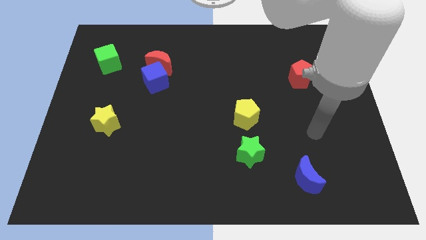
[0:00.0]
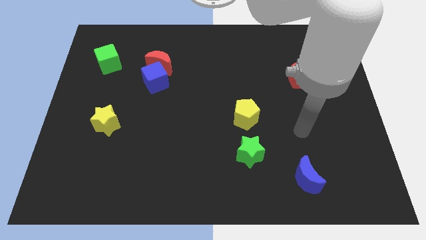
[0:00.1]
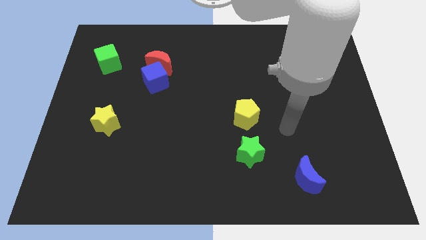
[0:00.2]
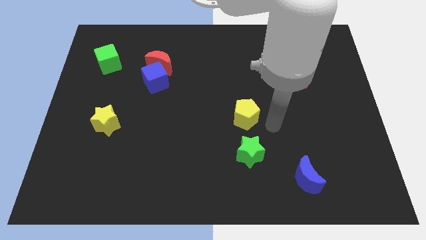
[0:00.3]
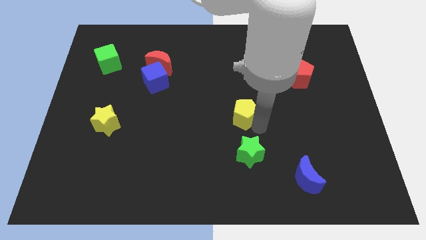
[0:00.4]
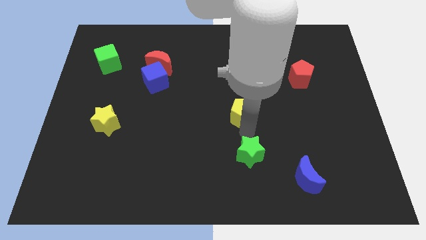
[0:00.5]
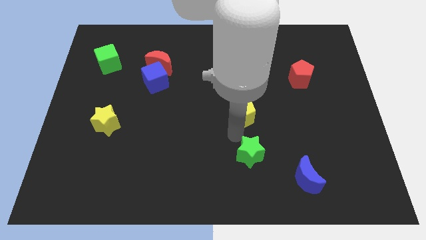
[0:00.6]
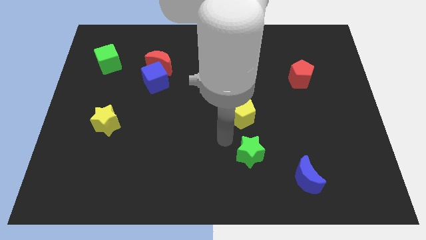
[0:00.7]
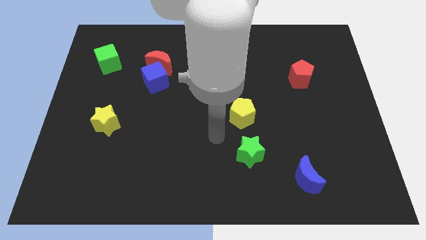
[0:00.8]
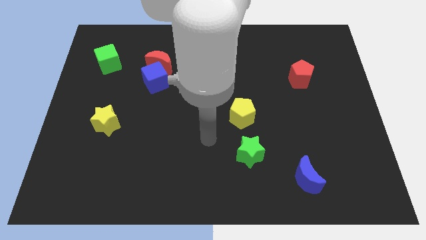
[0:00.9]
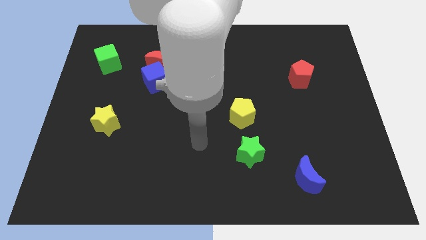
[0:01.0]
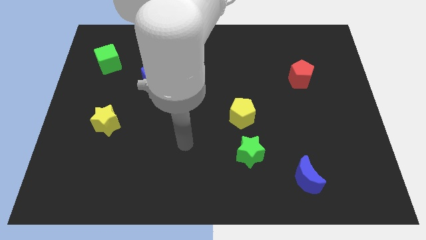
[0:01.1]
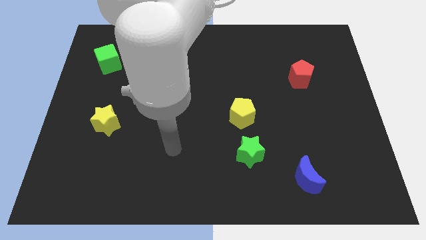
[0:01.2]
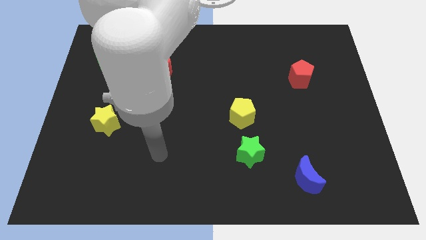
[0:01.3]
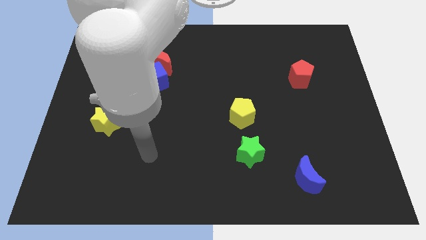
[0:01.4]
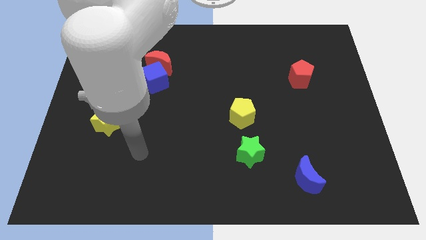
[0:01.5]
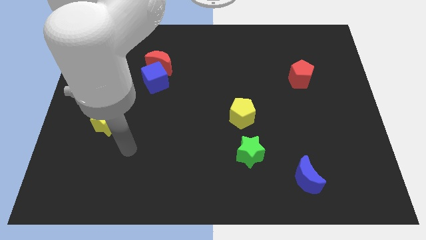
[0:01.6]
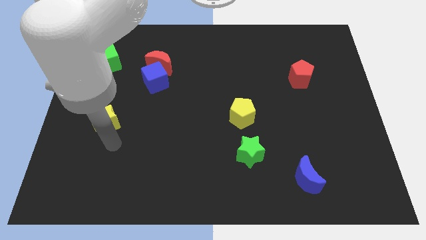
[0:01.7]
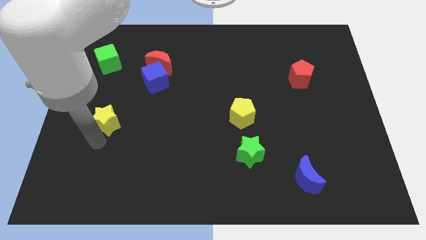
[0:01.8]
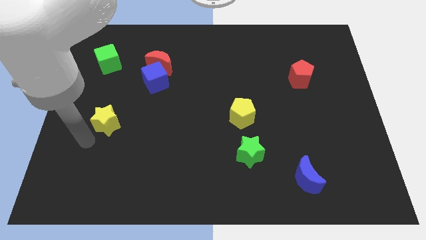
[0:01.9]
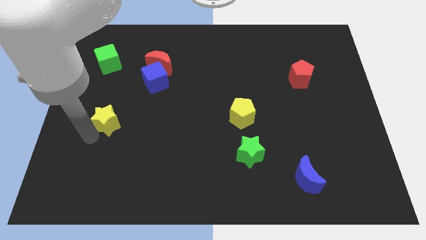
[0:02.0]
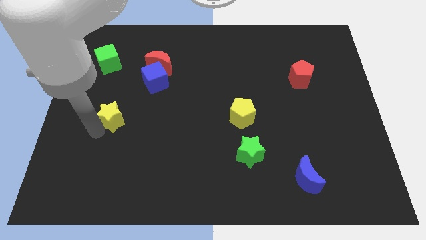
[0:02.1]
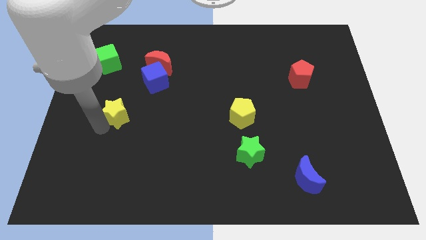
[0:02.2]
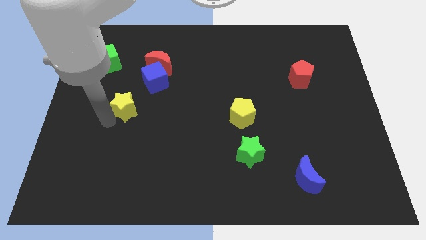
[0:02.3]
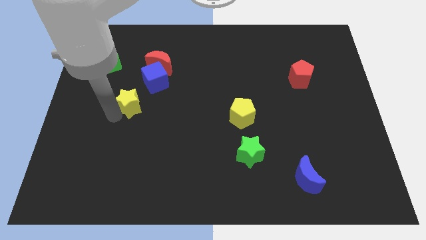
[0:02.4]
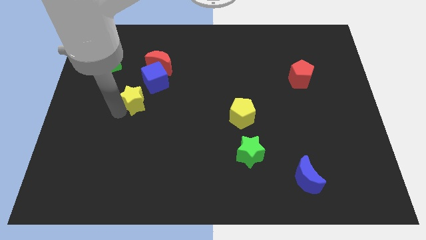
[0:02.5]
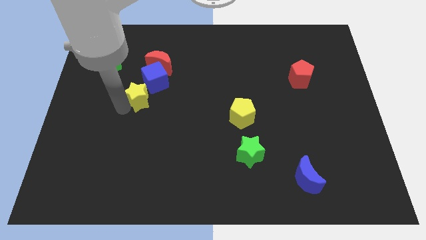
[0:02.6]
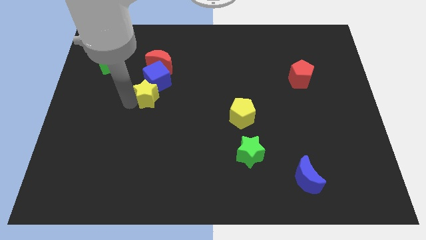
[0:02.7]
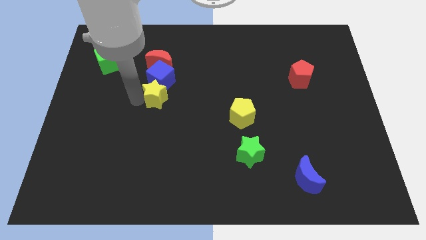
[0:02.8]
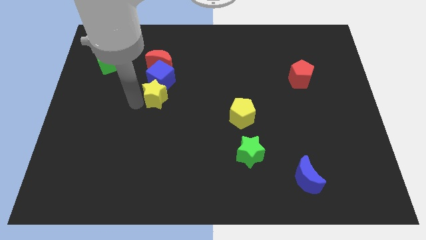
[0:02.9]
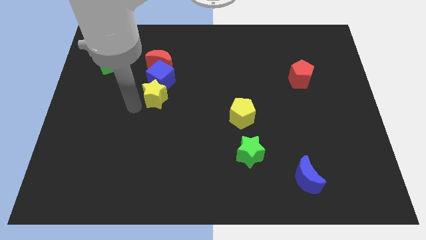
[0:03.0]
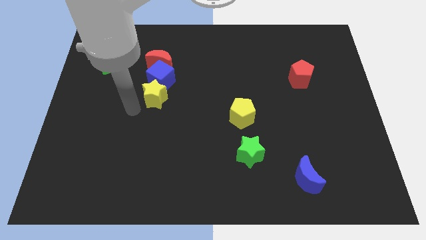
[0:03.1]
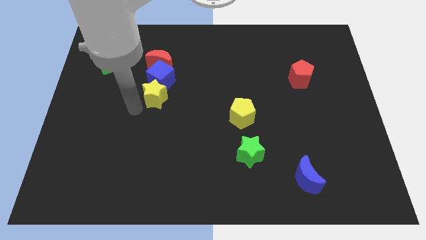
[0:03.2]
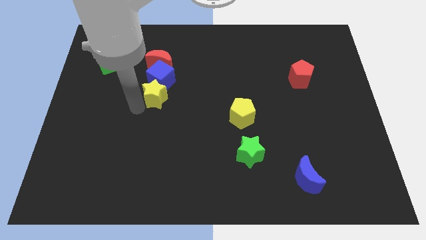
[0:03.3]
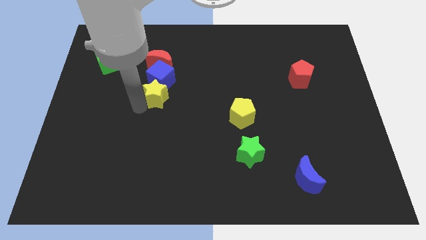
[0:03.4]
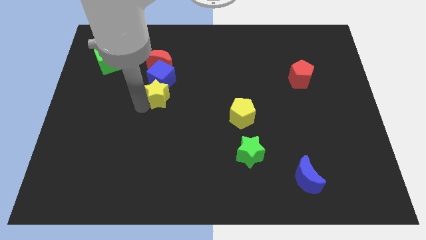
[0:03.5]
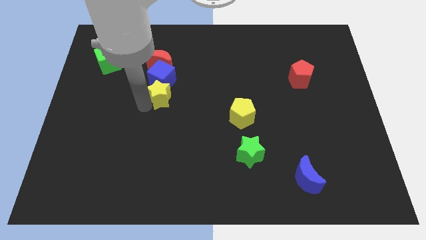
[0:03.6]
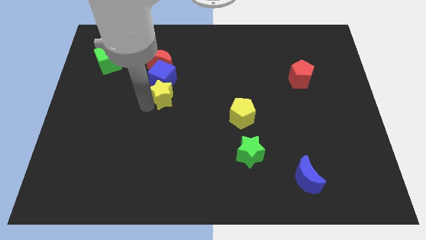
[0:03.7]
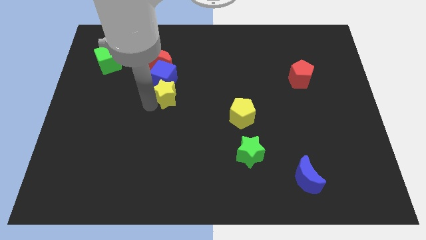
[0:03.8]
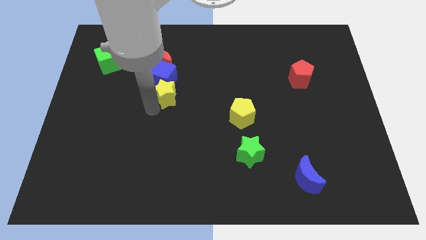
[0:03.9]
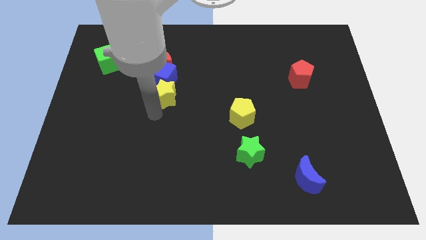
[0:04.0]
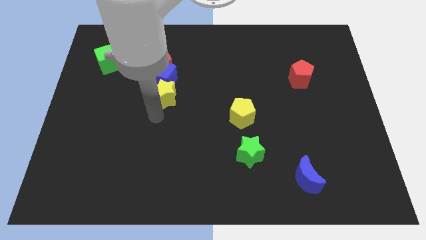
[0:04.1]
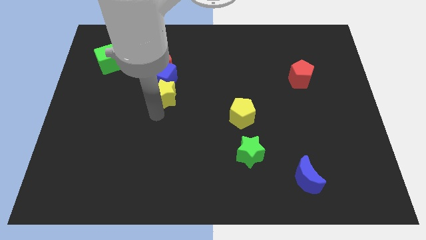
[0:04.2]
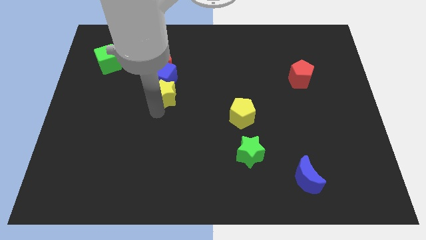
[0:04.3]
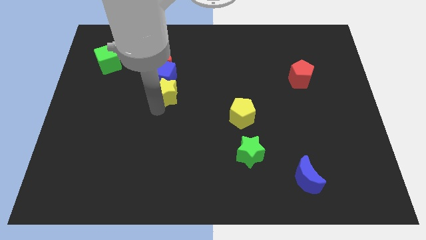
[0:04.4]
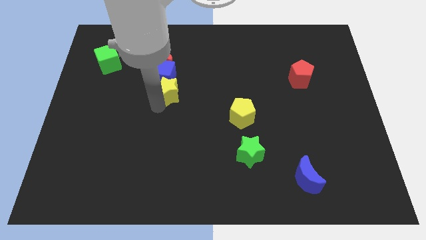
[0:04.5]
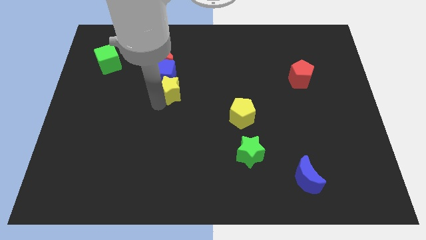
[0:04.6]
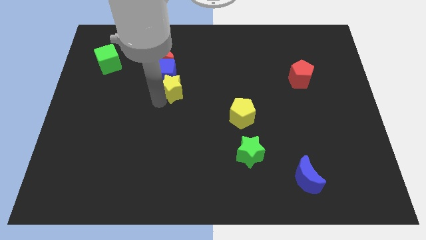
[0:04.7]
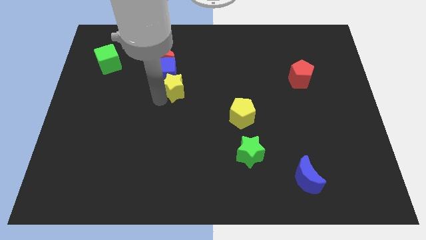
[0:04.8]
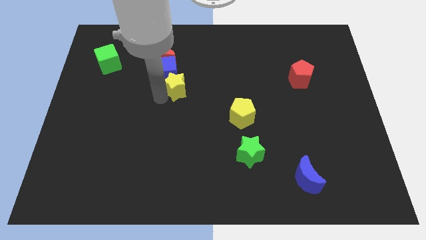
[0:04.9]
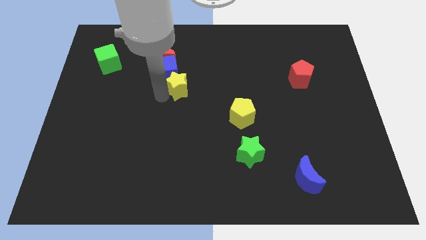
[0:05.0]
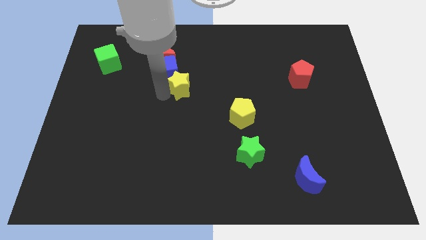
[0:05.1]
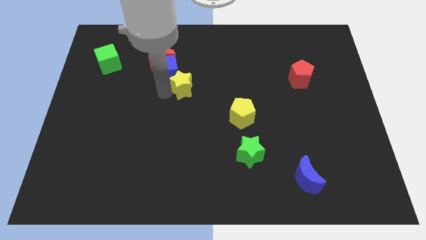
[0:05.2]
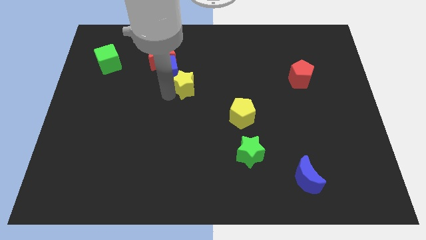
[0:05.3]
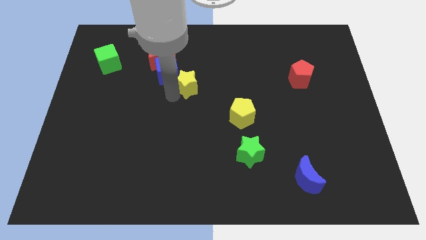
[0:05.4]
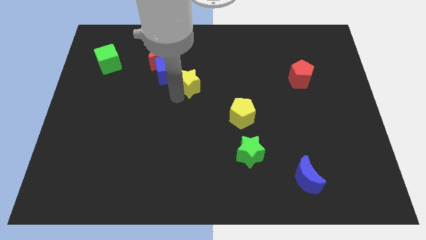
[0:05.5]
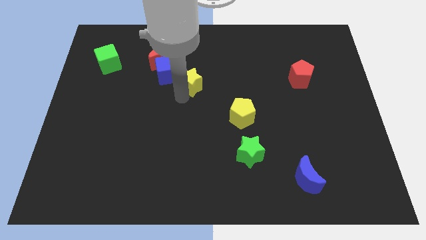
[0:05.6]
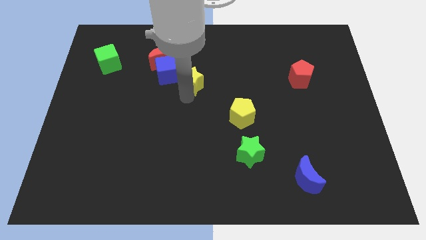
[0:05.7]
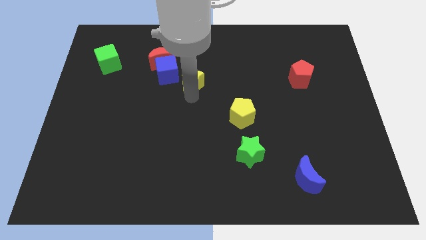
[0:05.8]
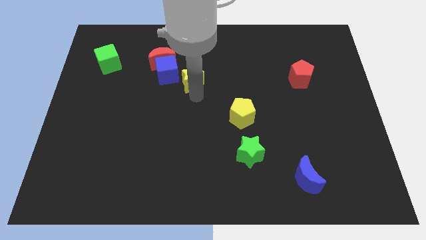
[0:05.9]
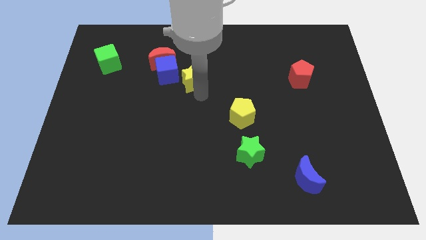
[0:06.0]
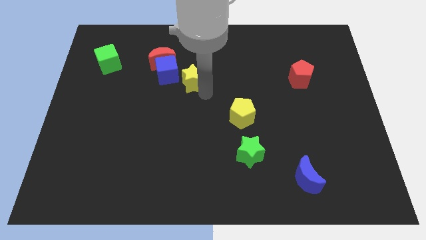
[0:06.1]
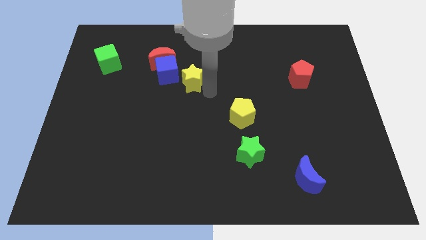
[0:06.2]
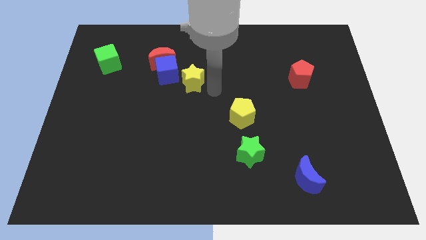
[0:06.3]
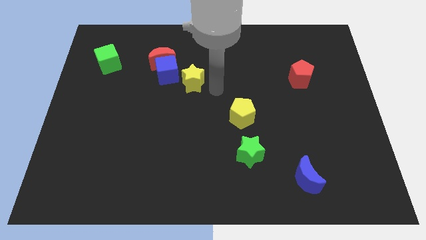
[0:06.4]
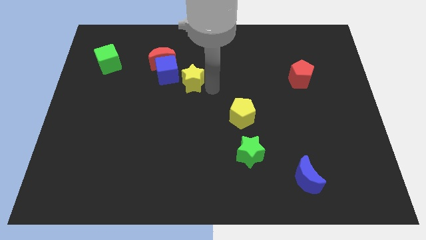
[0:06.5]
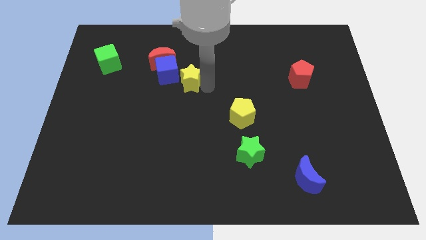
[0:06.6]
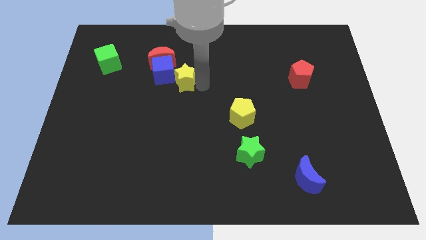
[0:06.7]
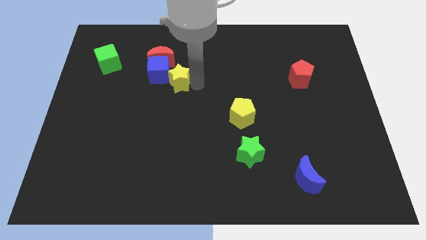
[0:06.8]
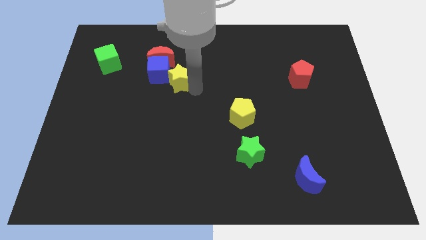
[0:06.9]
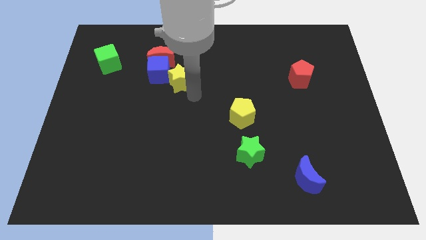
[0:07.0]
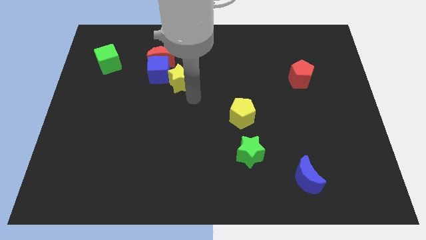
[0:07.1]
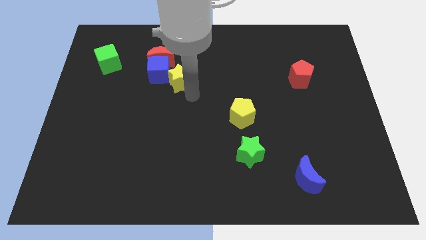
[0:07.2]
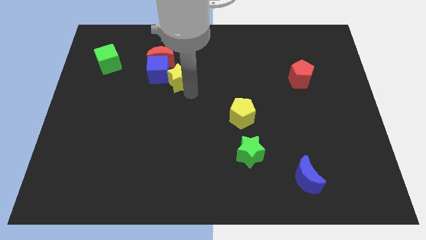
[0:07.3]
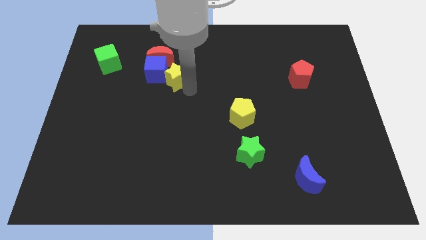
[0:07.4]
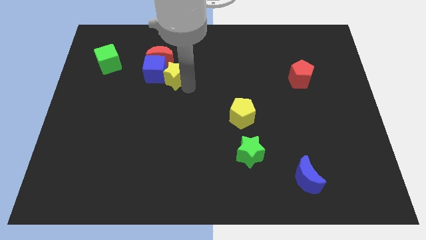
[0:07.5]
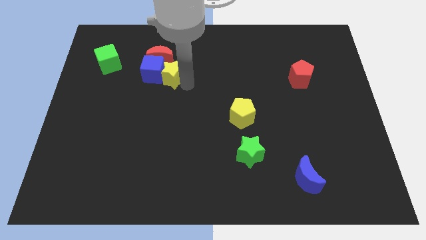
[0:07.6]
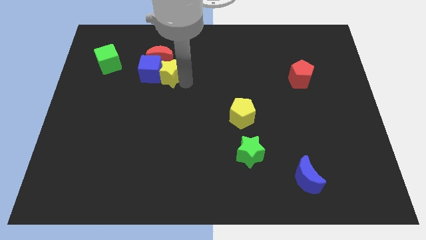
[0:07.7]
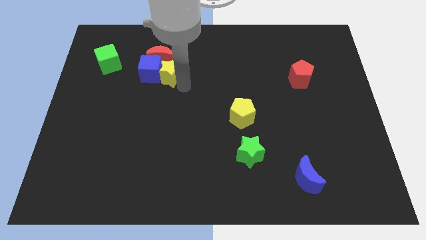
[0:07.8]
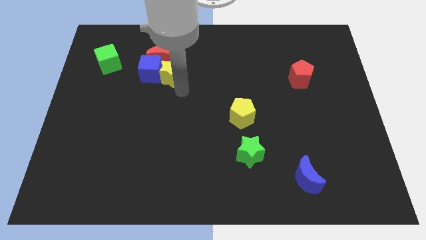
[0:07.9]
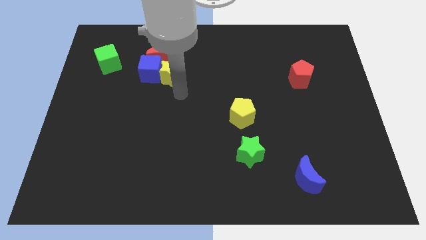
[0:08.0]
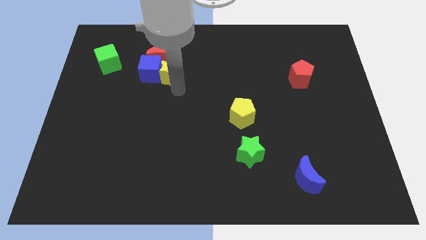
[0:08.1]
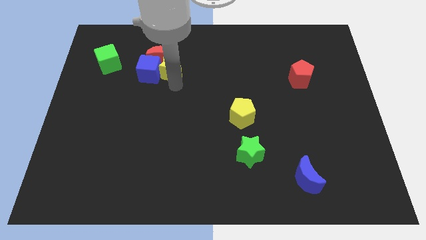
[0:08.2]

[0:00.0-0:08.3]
put the yellow star to the red moon
